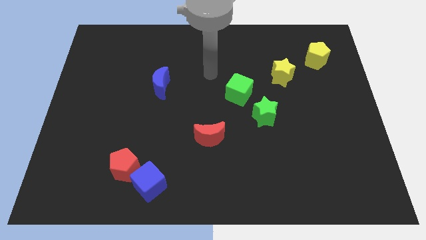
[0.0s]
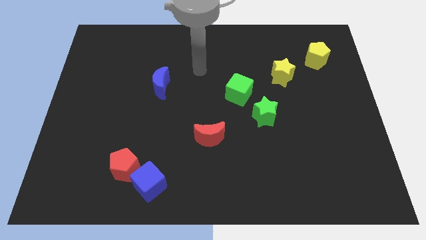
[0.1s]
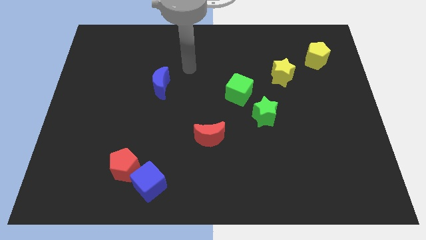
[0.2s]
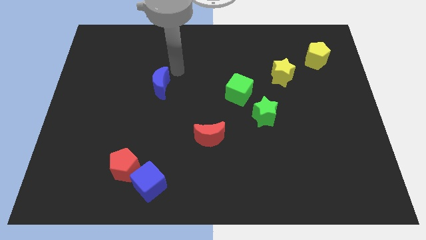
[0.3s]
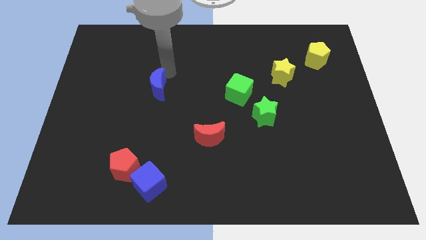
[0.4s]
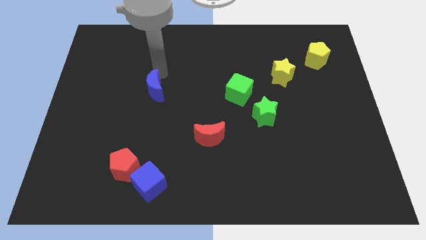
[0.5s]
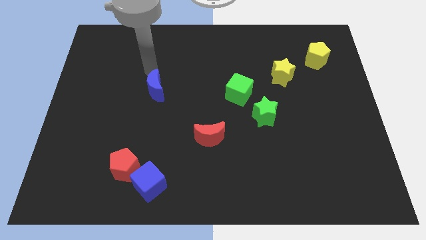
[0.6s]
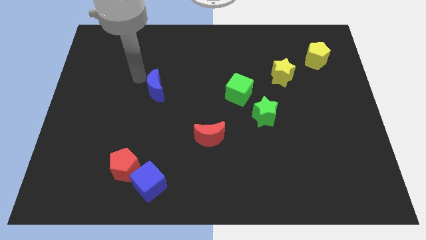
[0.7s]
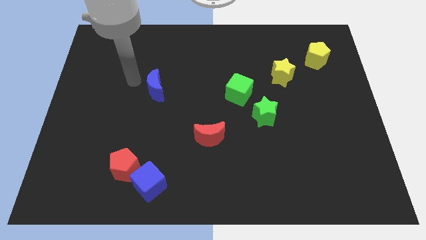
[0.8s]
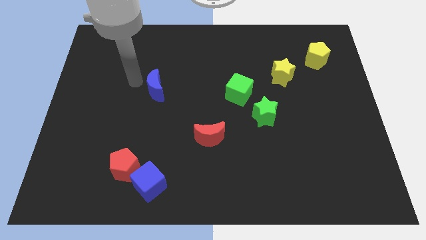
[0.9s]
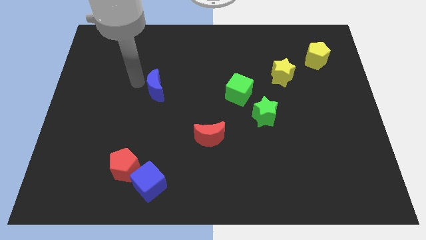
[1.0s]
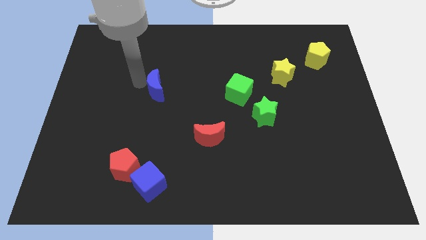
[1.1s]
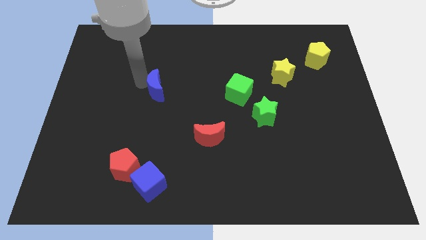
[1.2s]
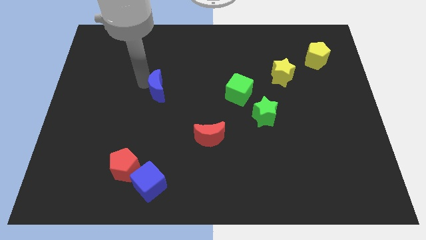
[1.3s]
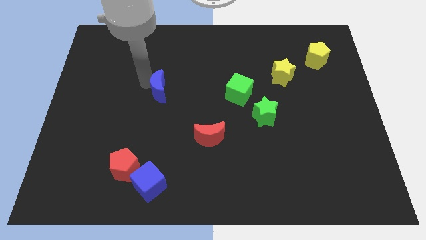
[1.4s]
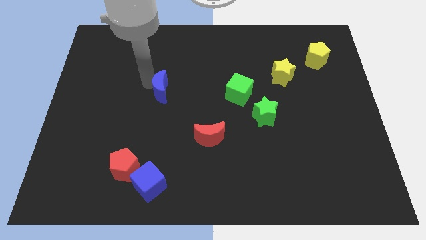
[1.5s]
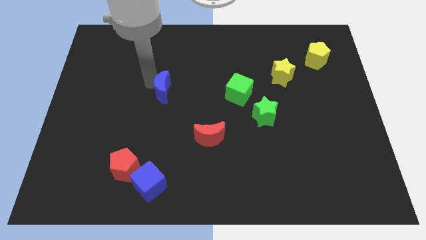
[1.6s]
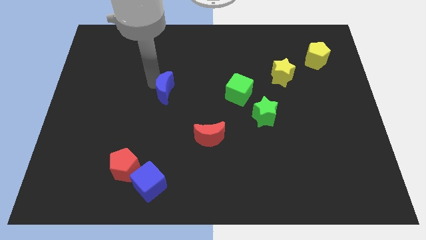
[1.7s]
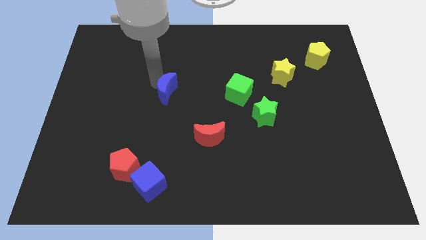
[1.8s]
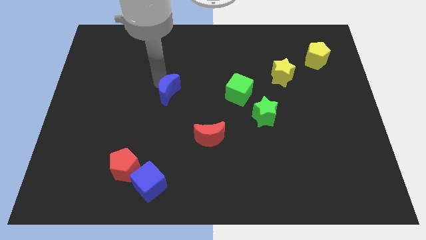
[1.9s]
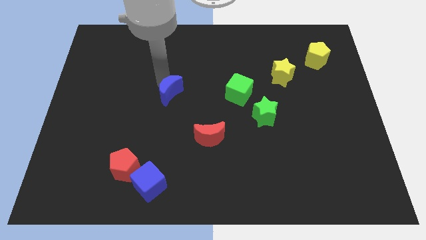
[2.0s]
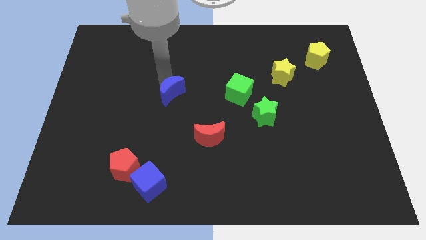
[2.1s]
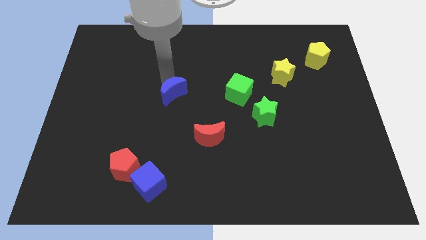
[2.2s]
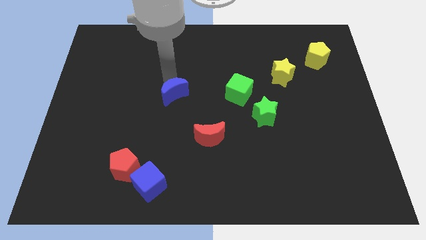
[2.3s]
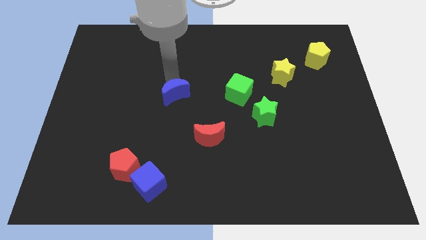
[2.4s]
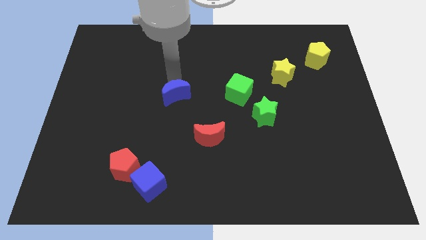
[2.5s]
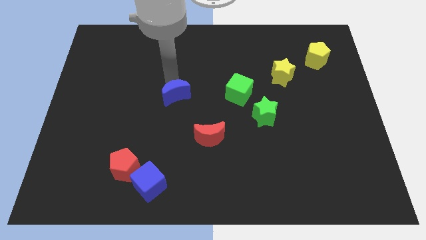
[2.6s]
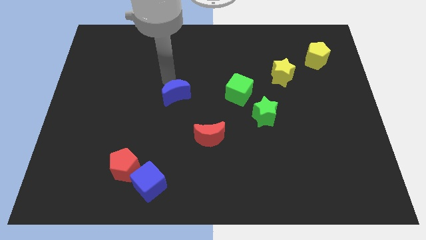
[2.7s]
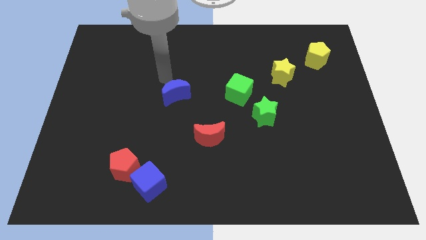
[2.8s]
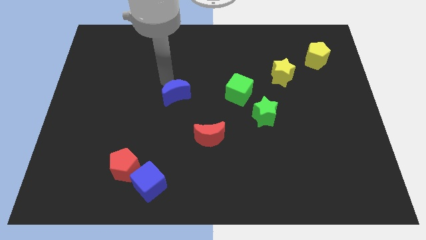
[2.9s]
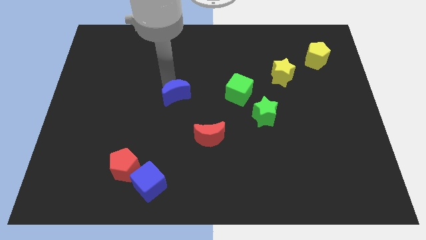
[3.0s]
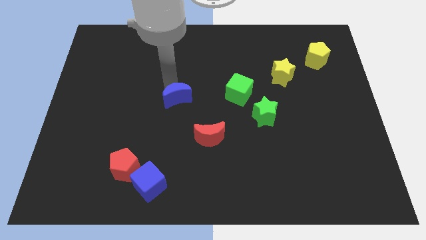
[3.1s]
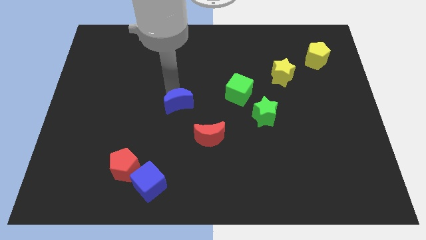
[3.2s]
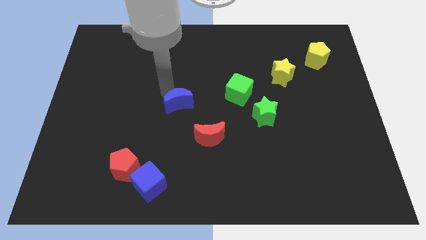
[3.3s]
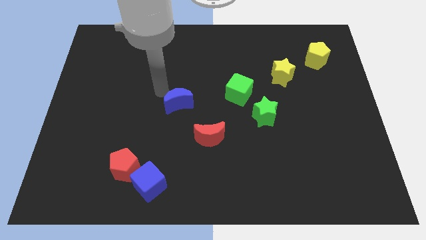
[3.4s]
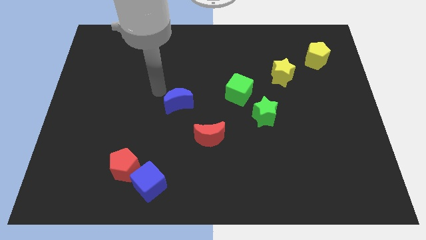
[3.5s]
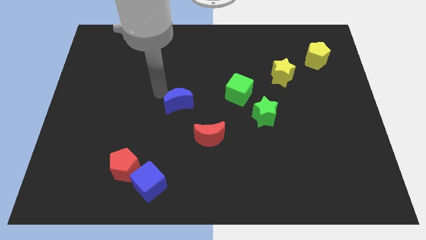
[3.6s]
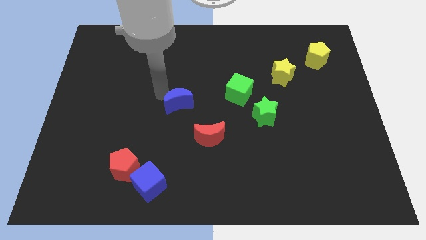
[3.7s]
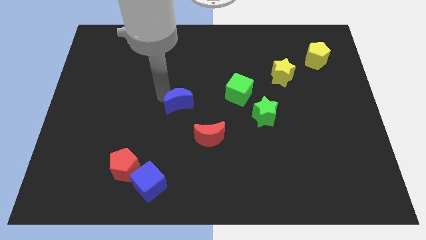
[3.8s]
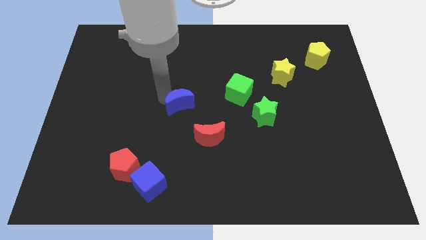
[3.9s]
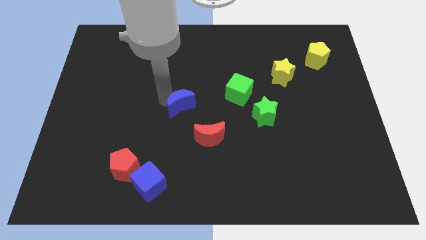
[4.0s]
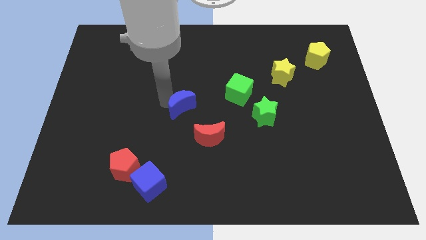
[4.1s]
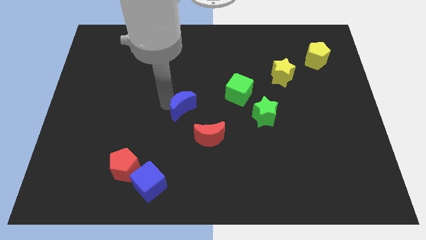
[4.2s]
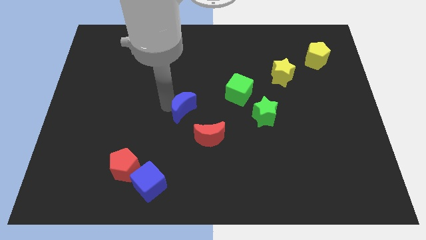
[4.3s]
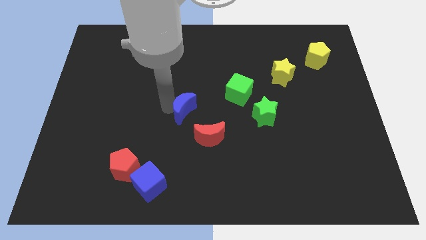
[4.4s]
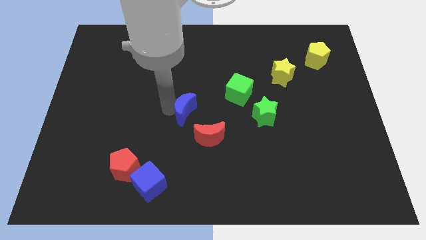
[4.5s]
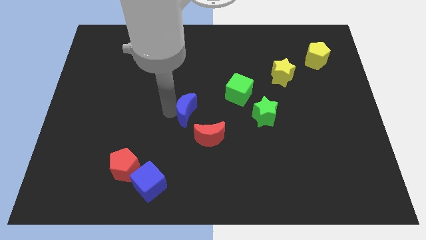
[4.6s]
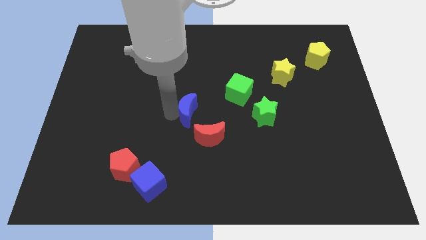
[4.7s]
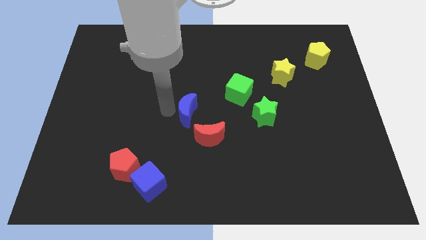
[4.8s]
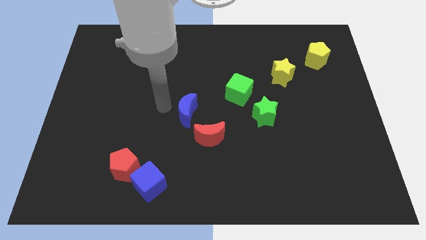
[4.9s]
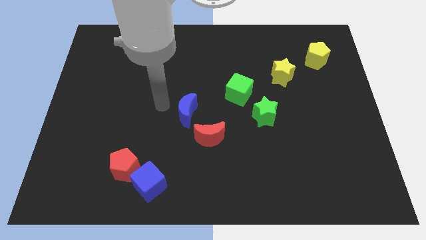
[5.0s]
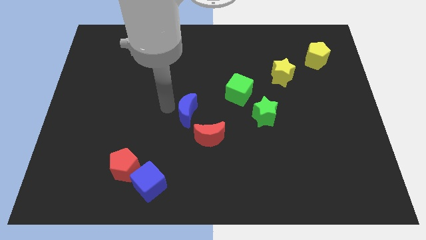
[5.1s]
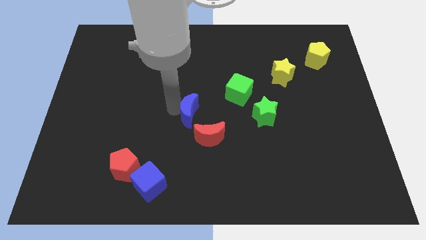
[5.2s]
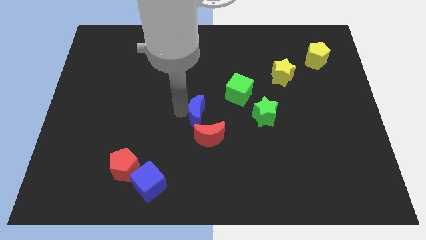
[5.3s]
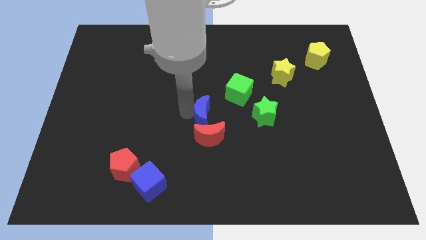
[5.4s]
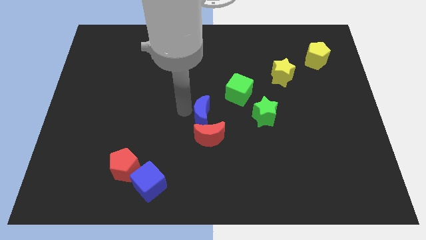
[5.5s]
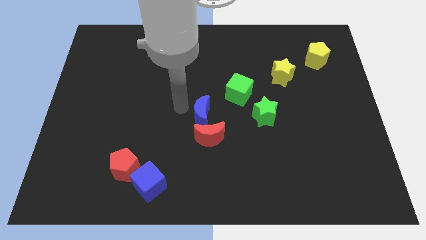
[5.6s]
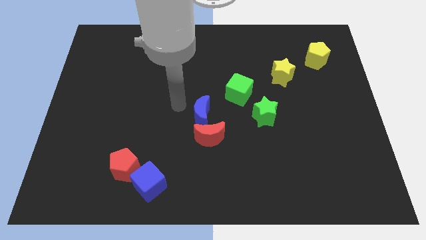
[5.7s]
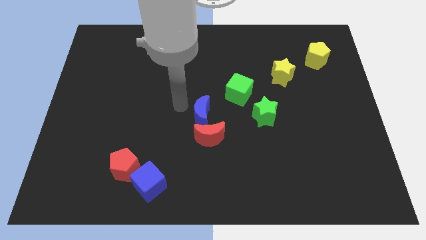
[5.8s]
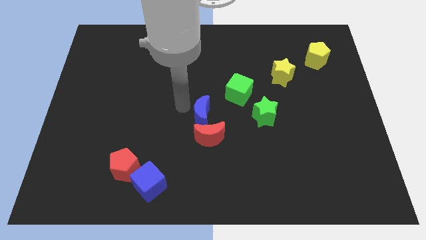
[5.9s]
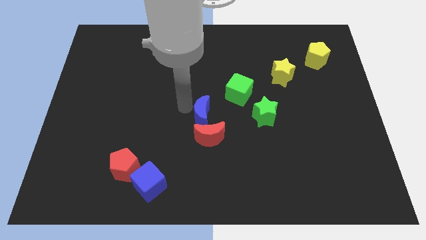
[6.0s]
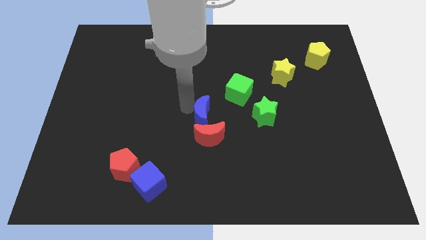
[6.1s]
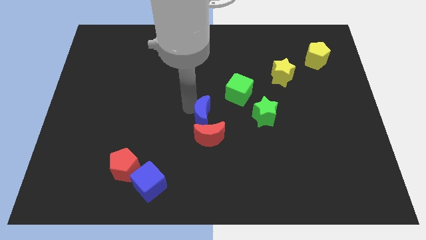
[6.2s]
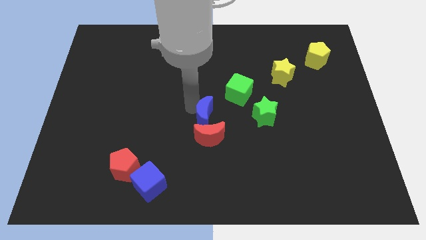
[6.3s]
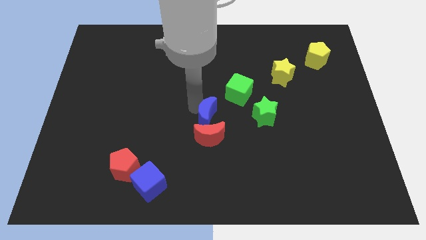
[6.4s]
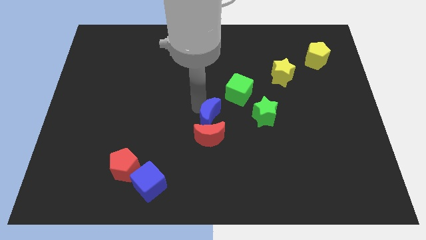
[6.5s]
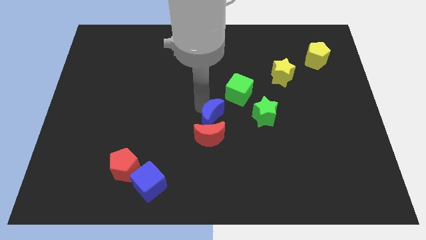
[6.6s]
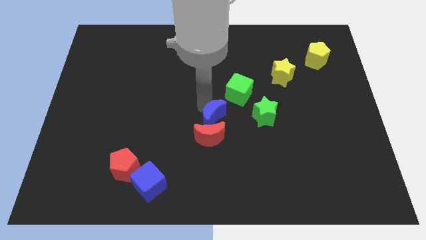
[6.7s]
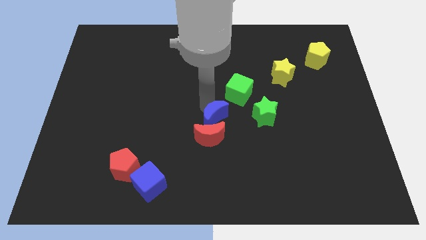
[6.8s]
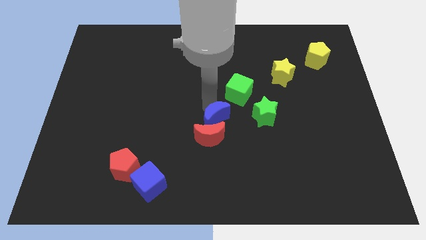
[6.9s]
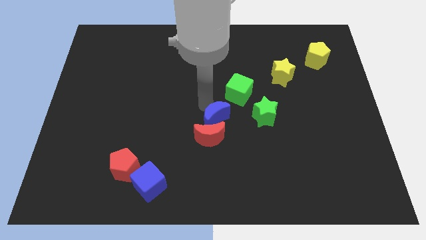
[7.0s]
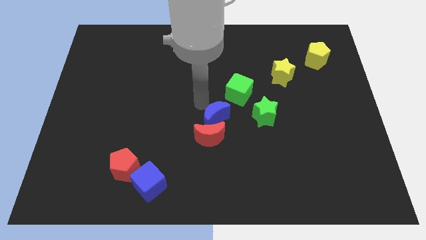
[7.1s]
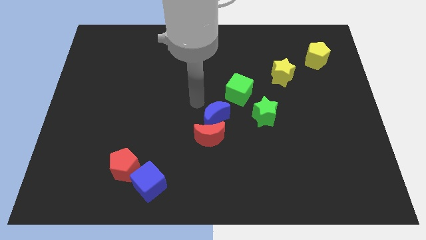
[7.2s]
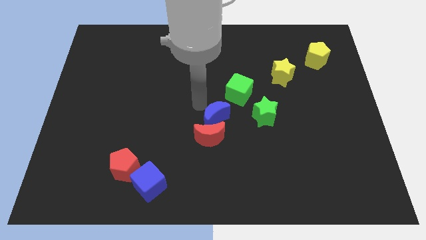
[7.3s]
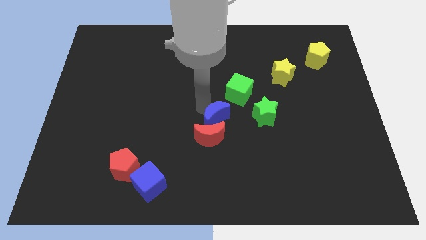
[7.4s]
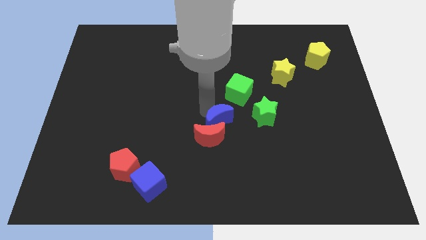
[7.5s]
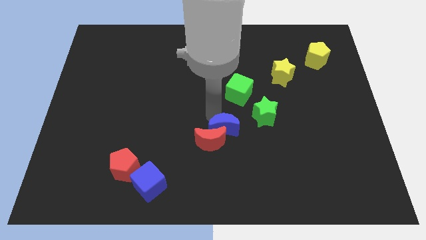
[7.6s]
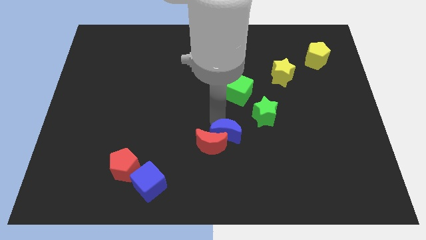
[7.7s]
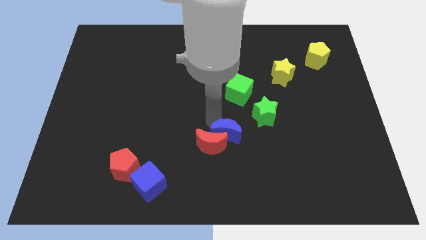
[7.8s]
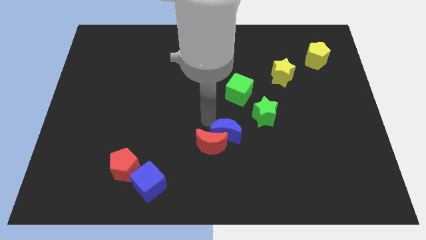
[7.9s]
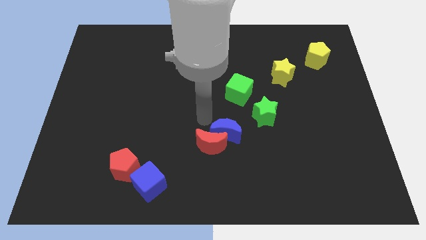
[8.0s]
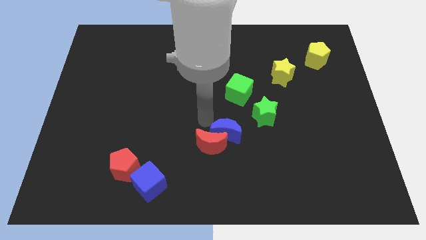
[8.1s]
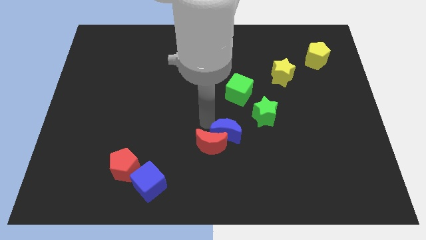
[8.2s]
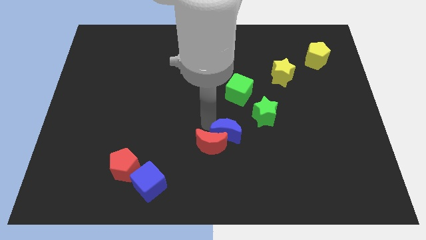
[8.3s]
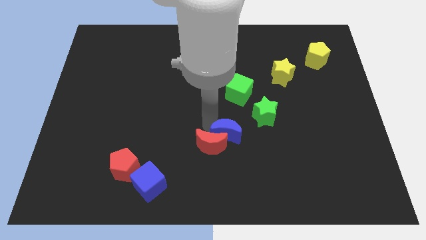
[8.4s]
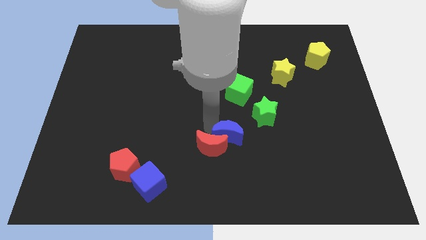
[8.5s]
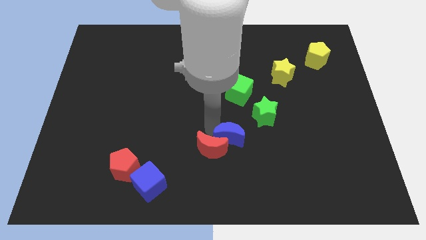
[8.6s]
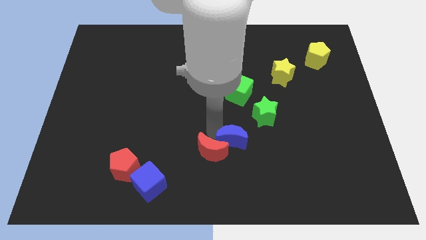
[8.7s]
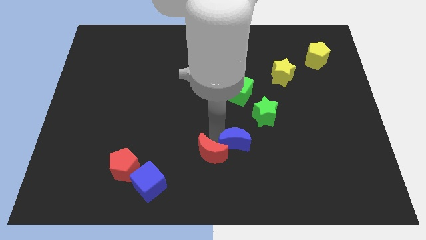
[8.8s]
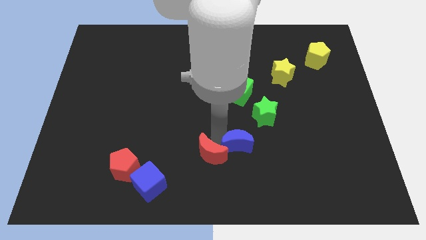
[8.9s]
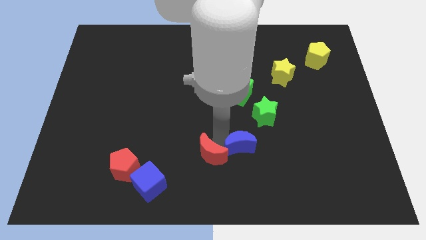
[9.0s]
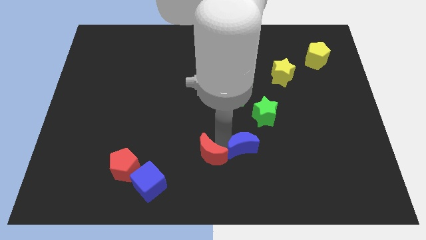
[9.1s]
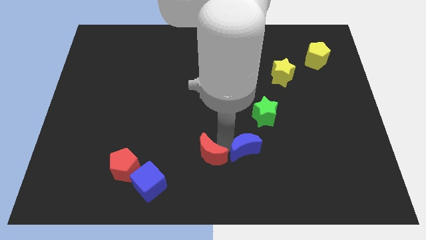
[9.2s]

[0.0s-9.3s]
move the blue moon below the green star
